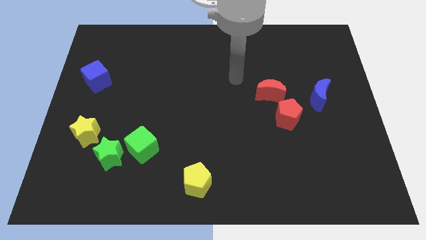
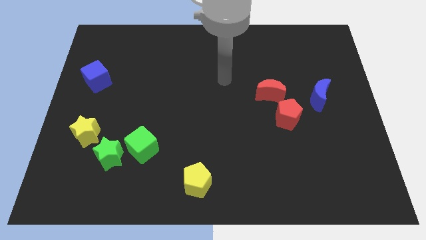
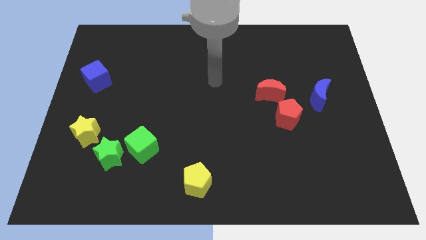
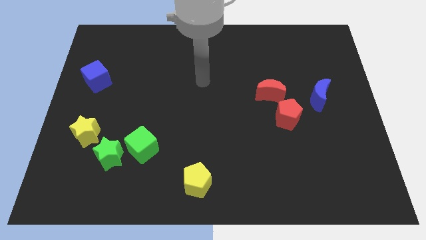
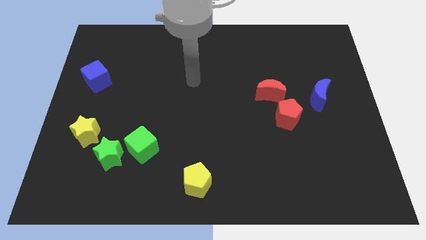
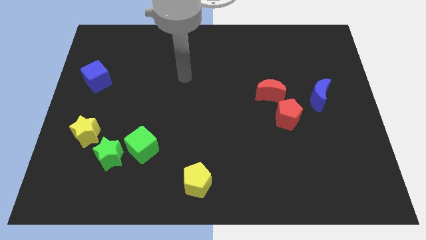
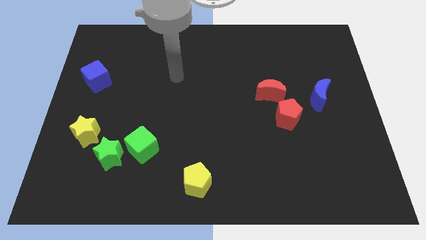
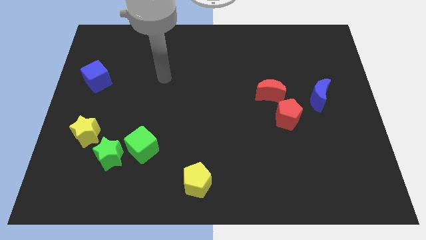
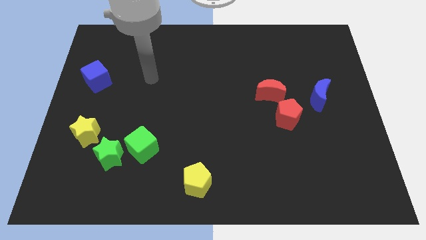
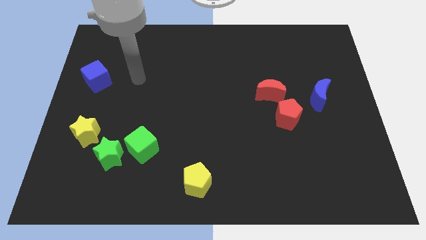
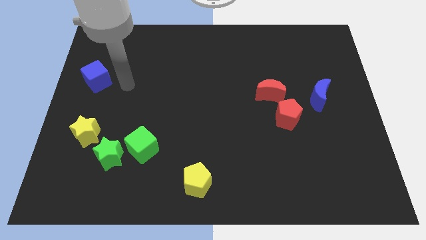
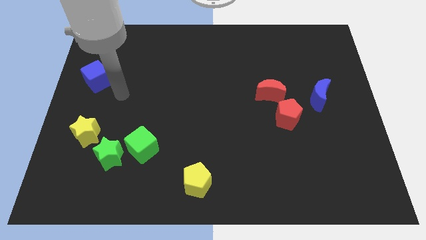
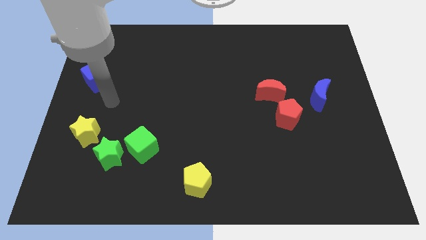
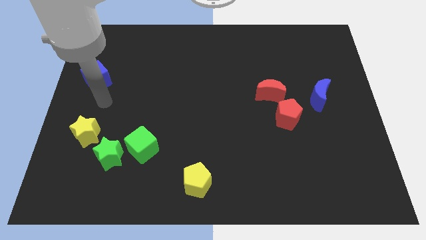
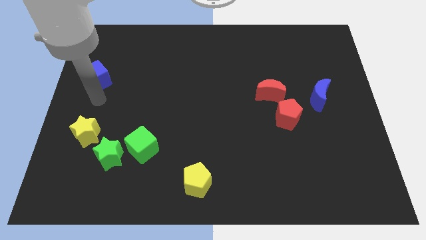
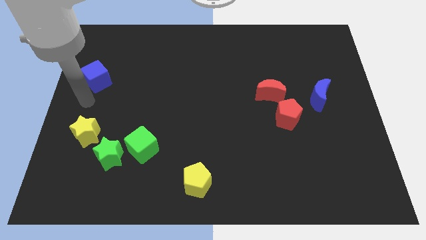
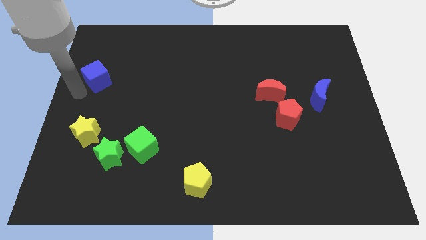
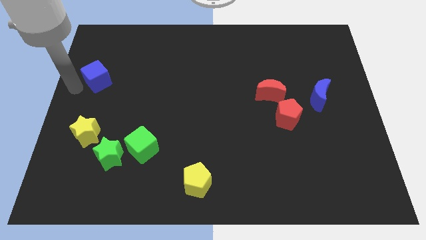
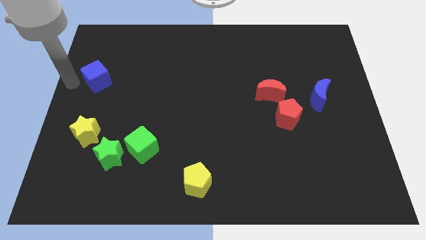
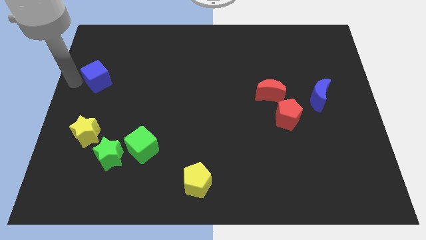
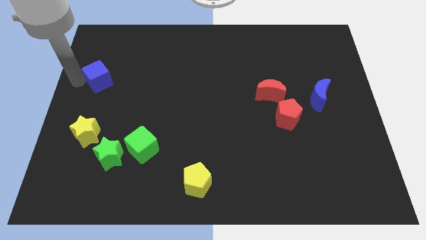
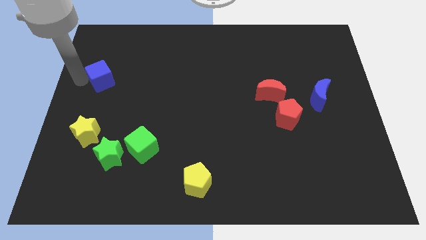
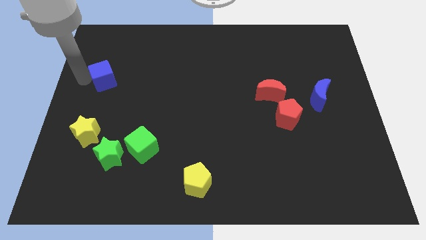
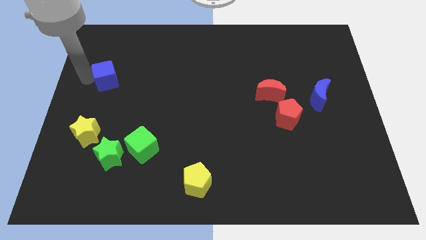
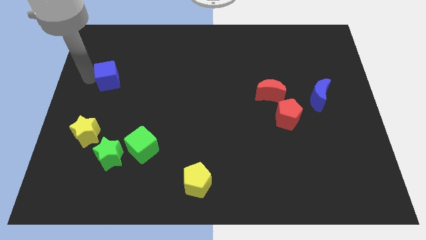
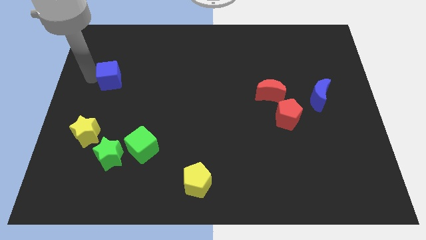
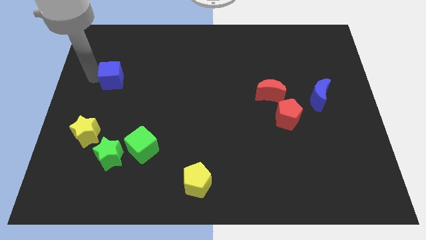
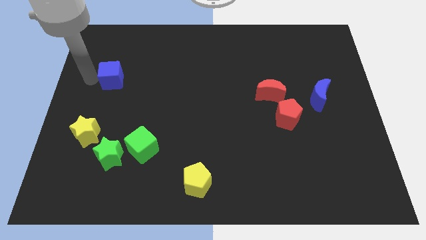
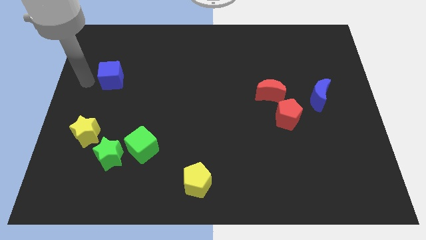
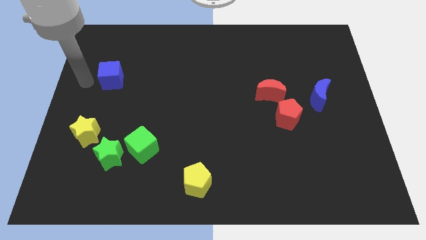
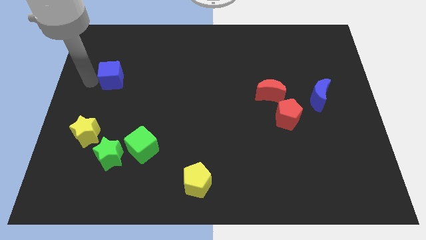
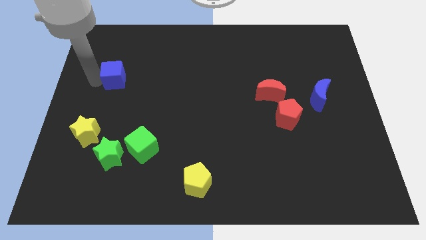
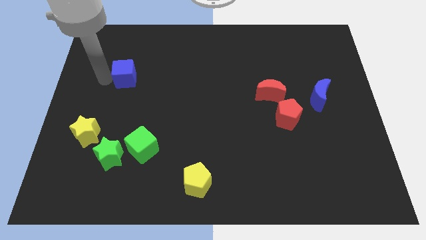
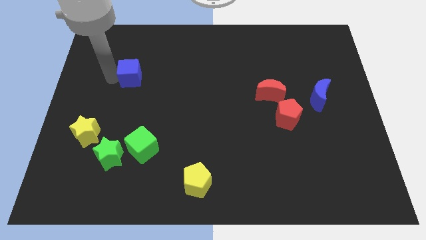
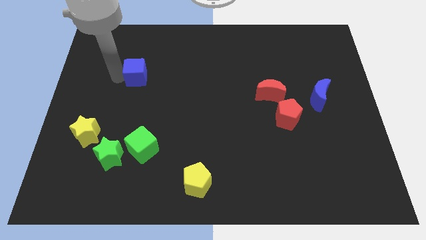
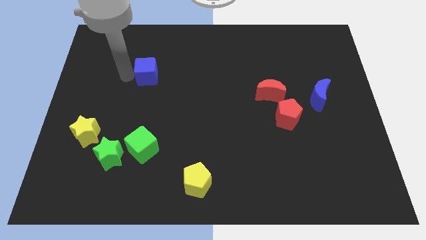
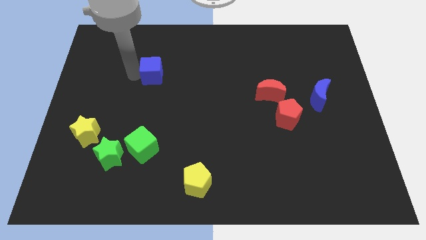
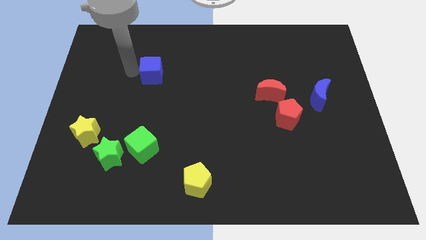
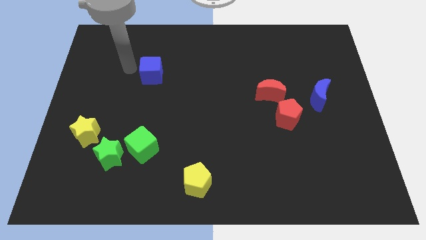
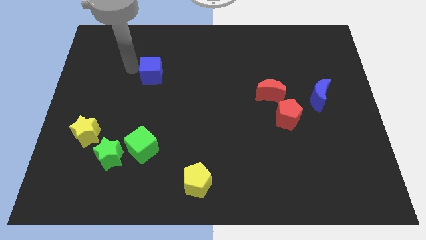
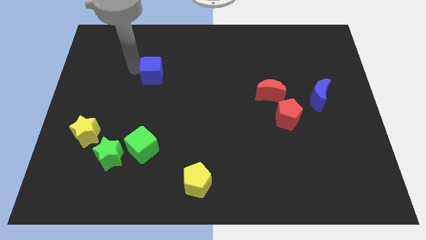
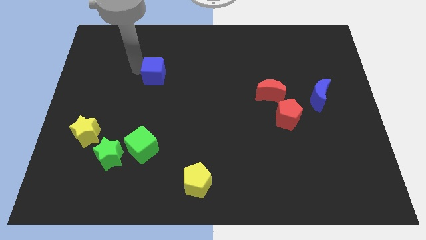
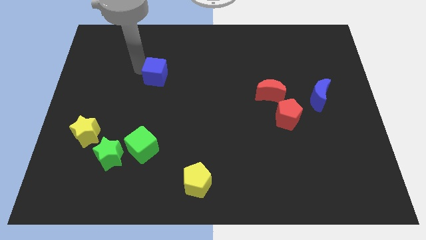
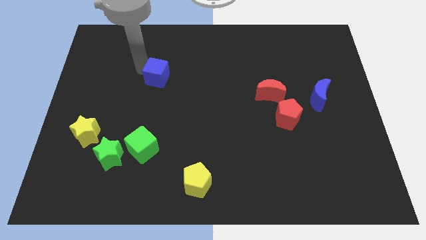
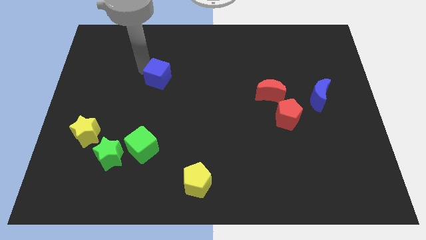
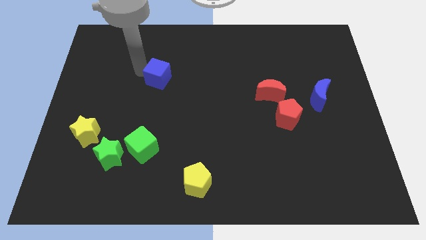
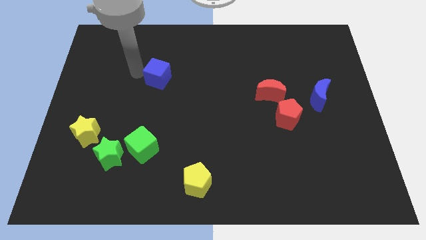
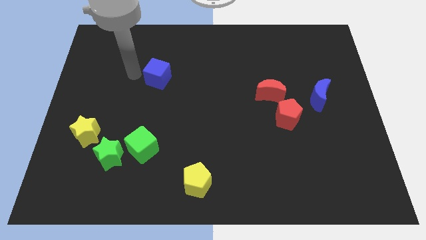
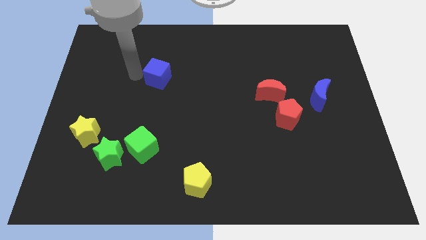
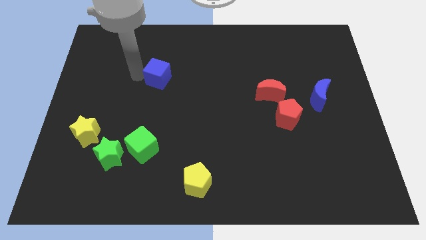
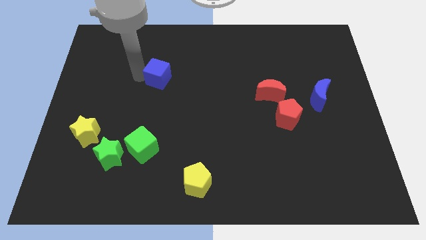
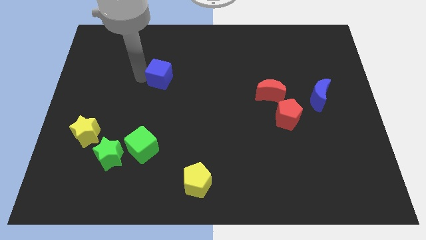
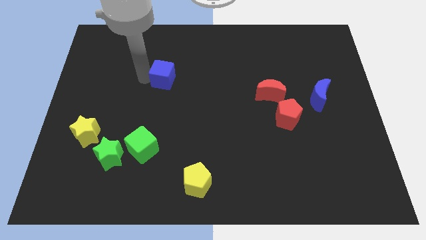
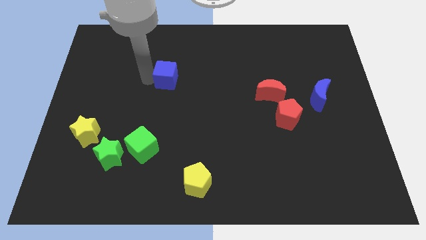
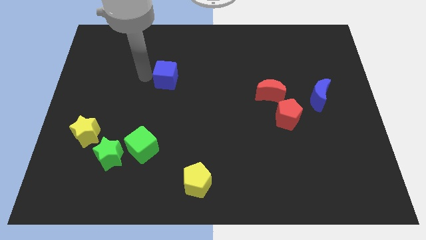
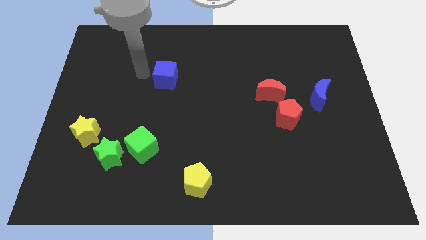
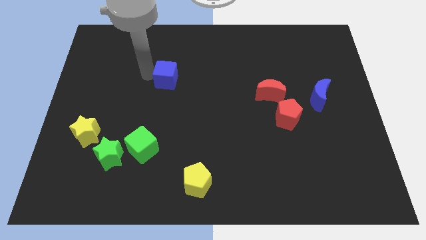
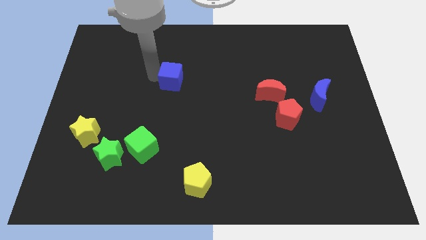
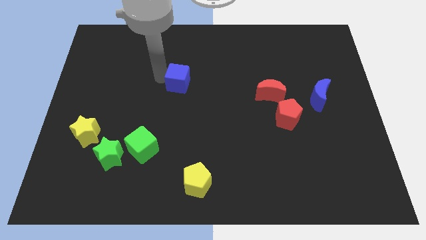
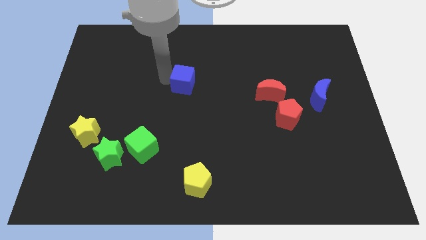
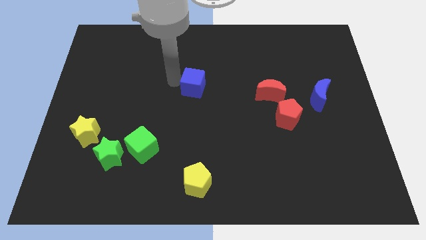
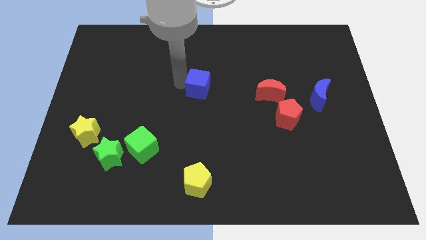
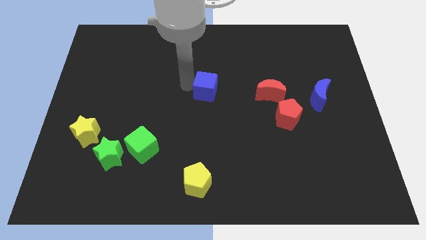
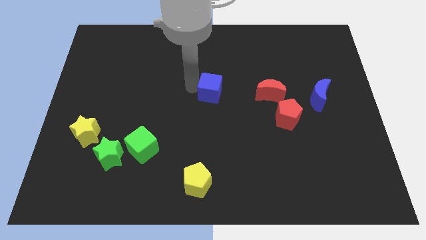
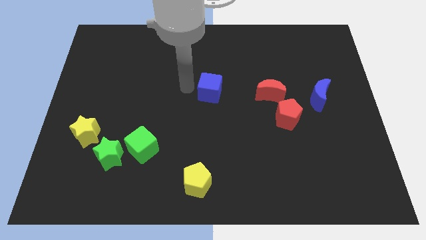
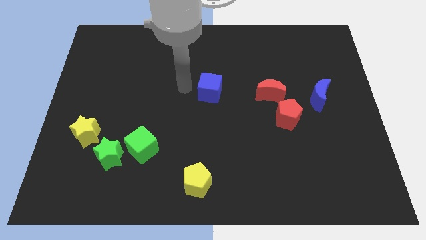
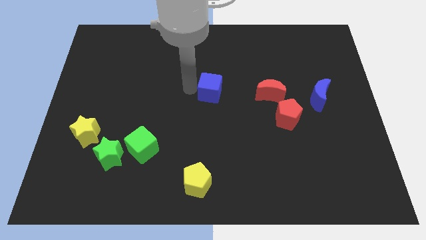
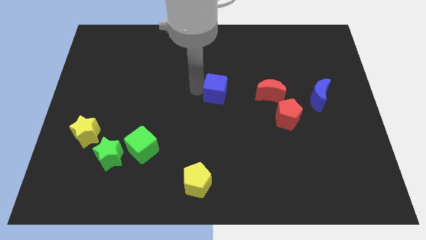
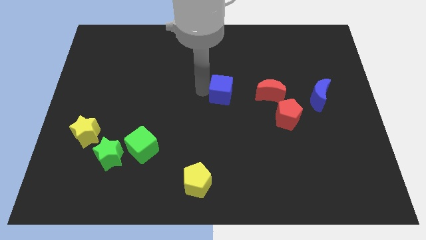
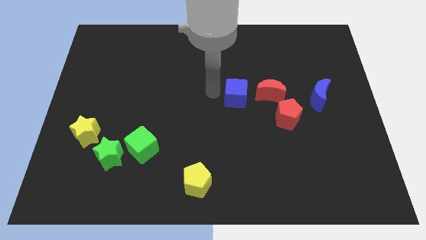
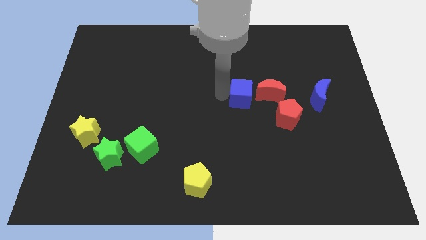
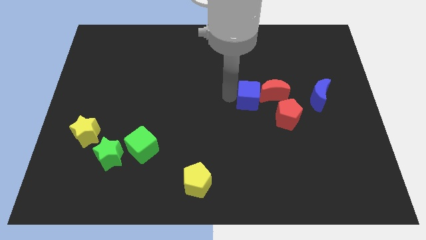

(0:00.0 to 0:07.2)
put the blue cube close to the red moon
